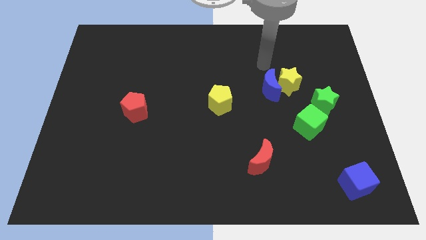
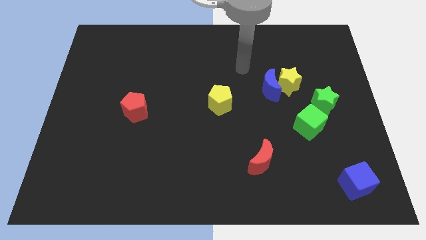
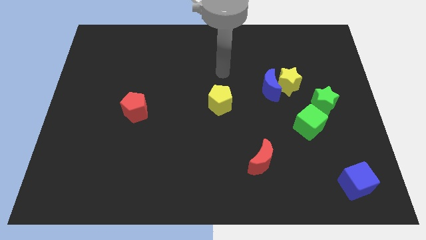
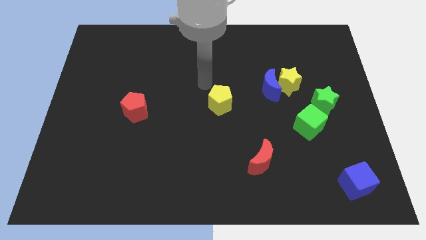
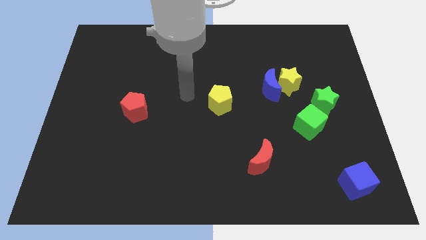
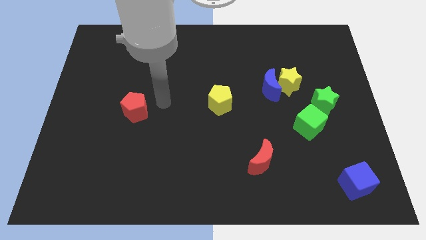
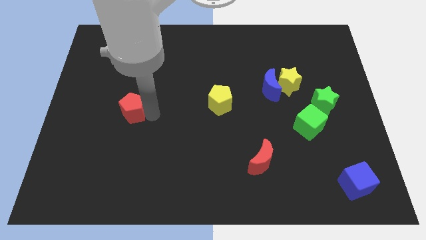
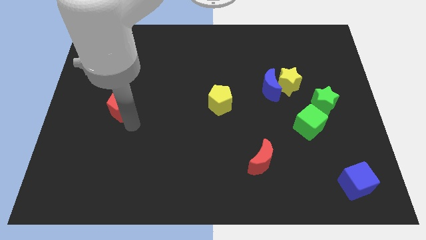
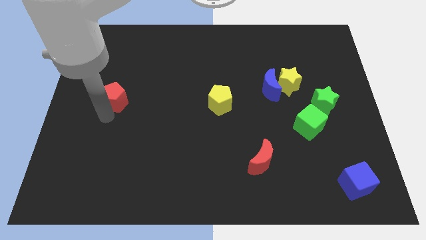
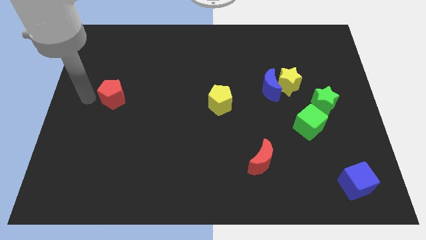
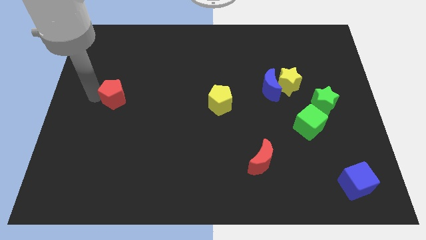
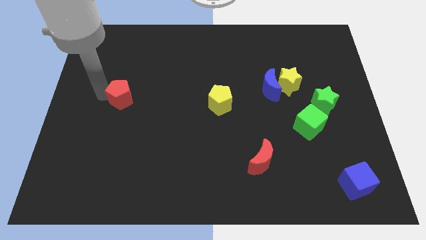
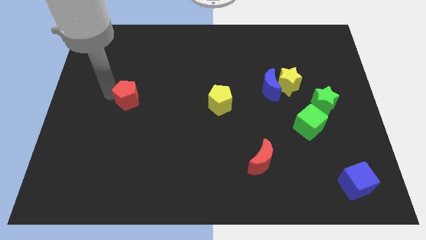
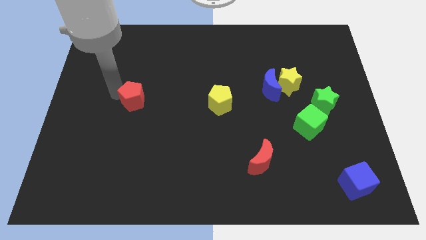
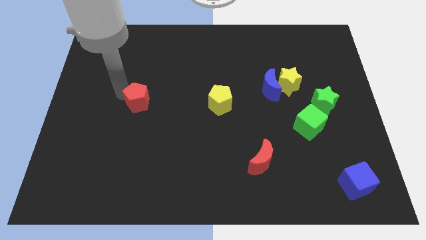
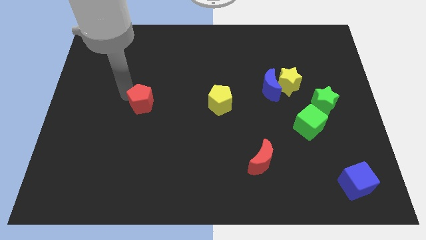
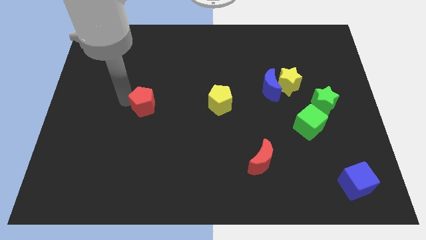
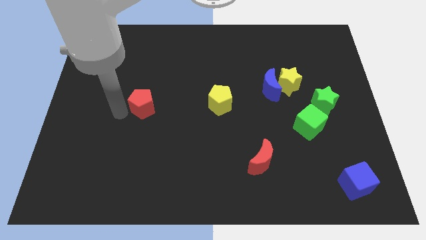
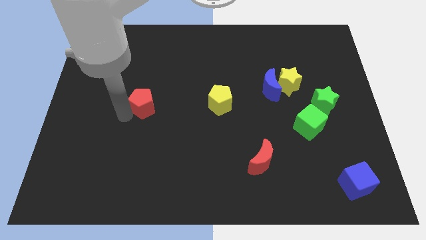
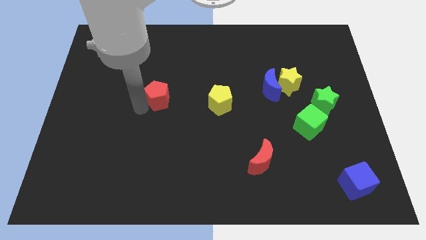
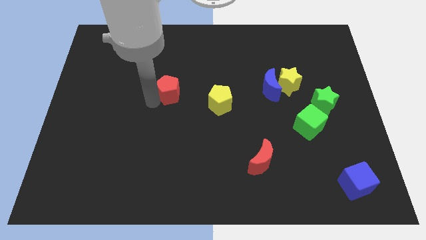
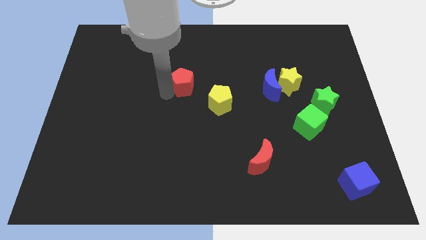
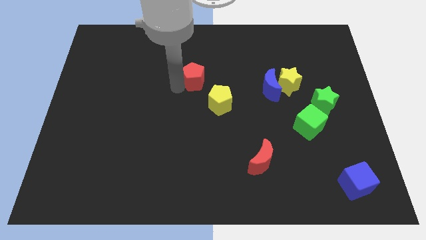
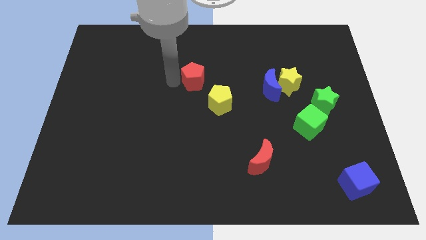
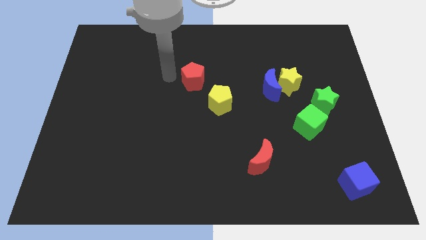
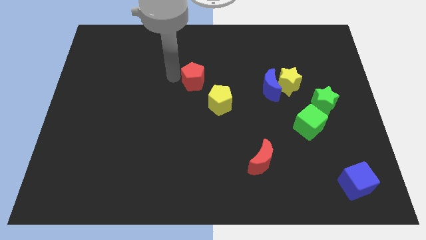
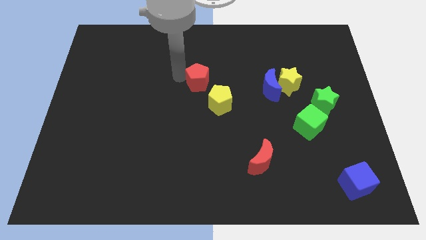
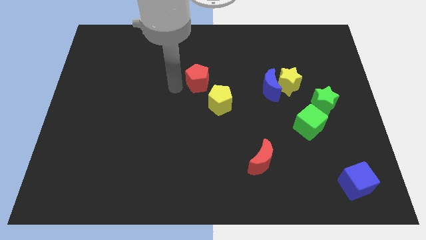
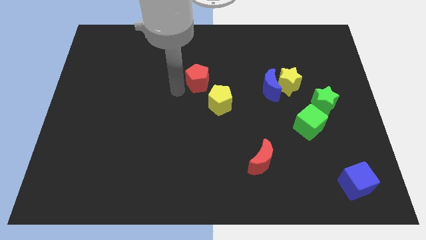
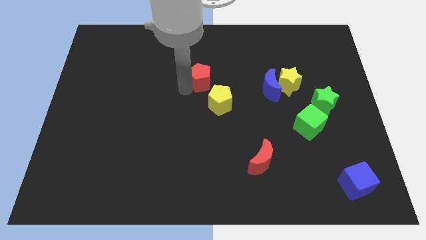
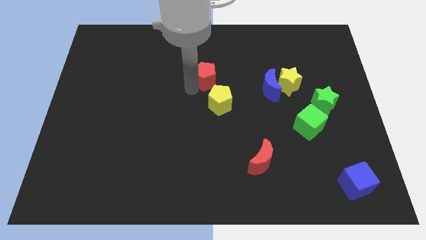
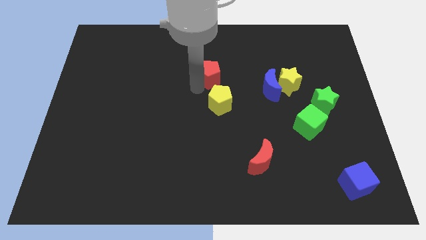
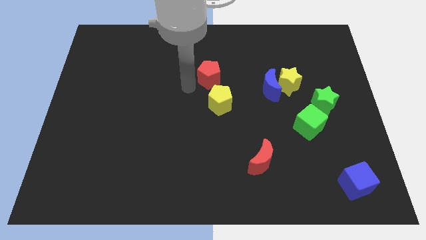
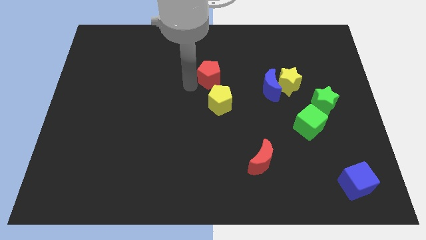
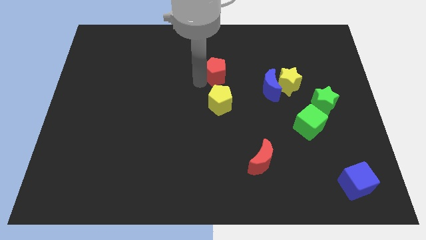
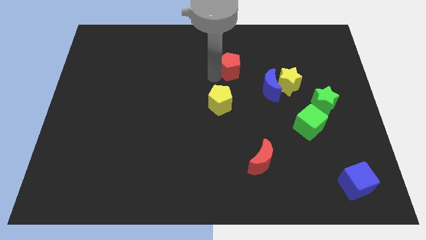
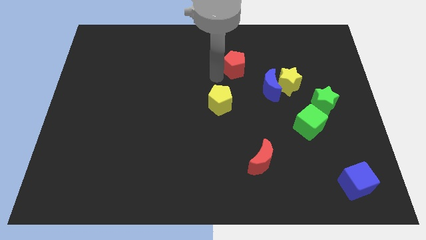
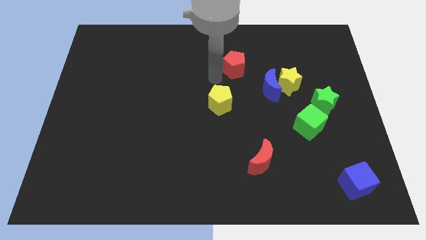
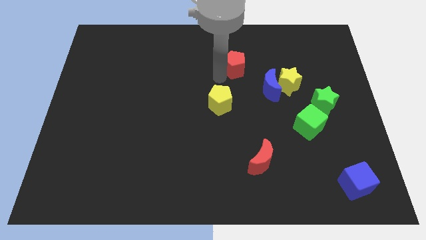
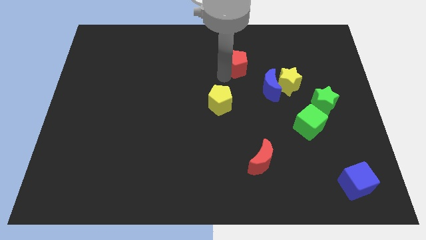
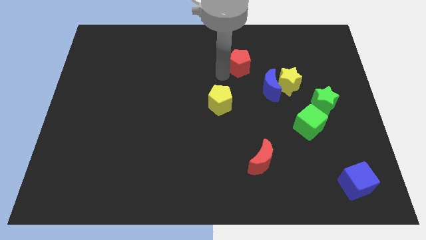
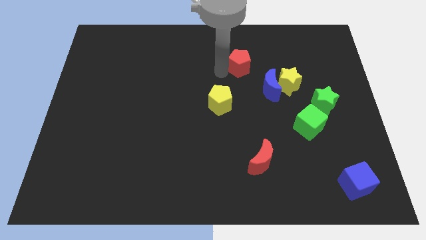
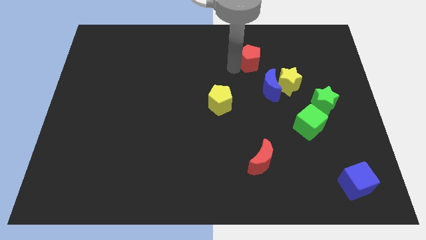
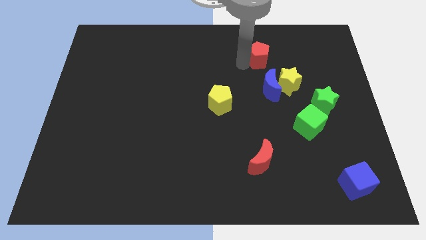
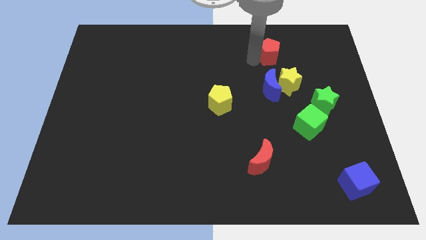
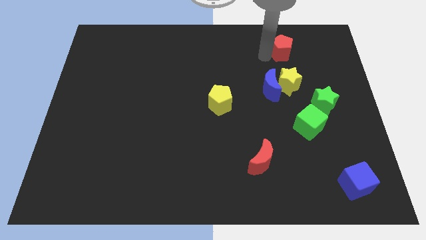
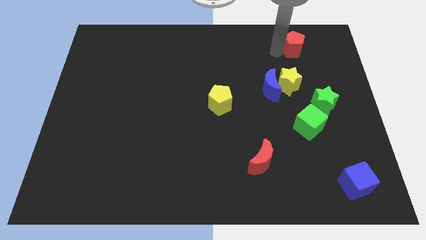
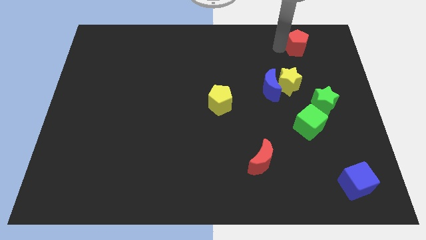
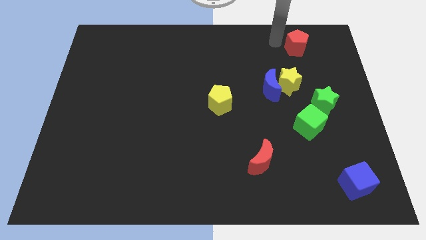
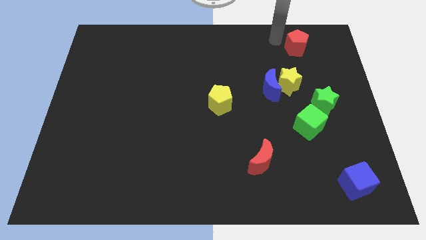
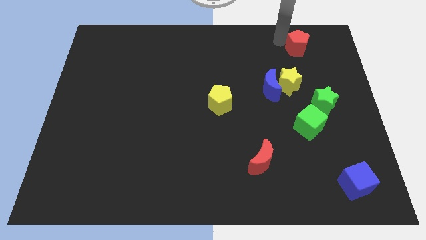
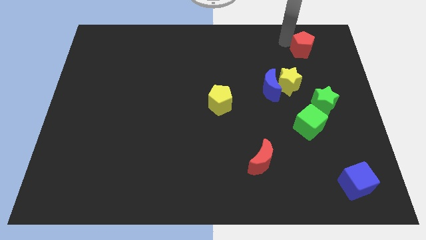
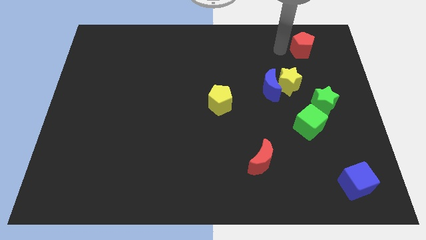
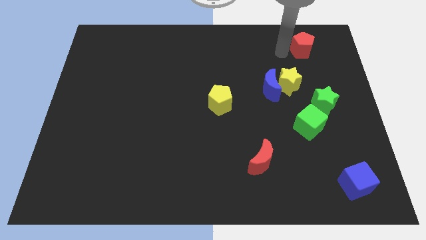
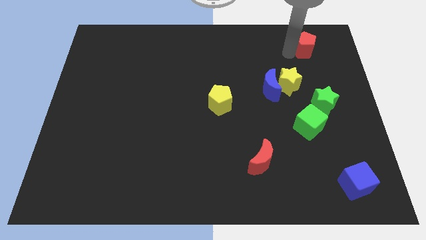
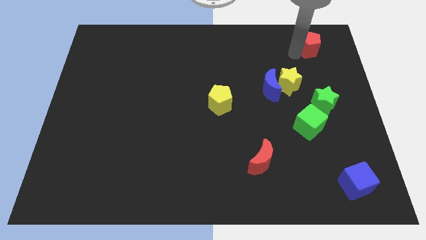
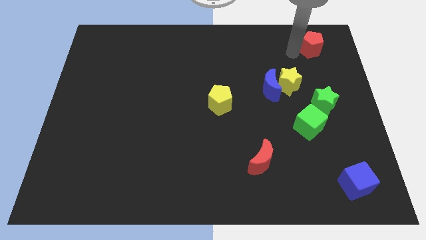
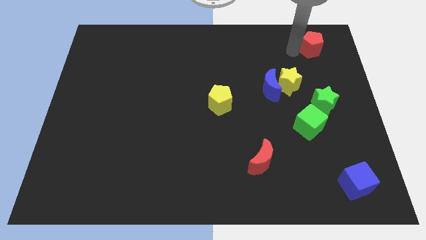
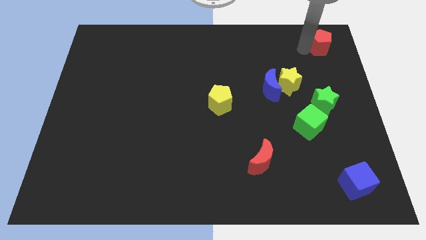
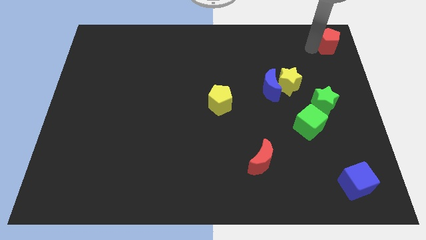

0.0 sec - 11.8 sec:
push the red pentagon to the top right corner

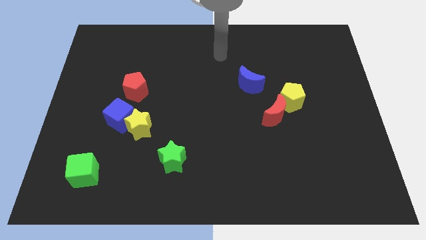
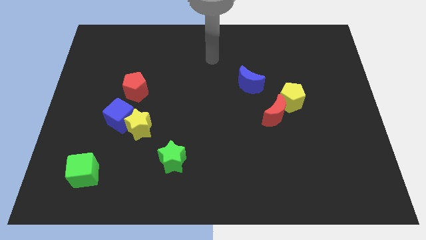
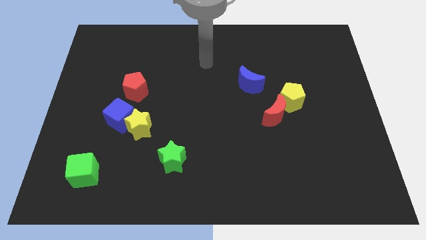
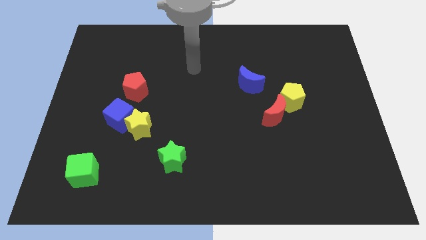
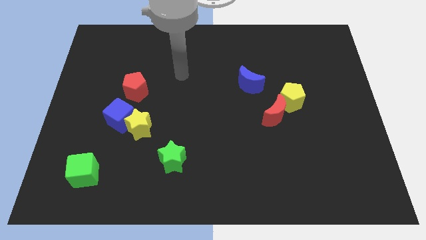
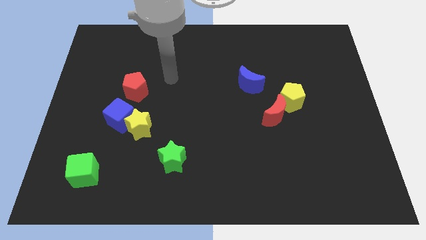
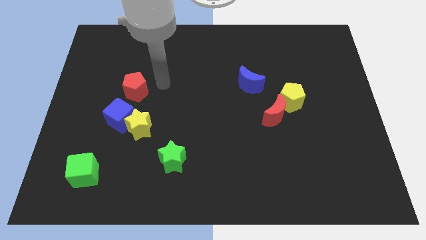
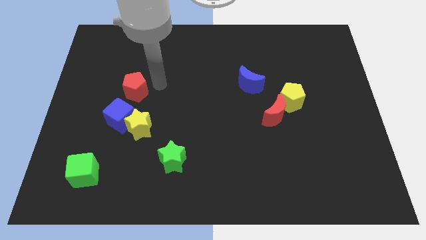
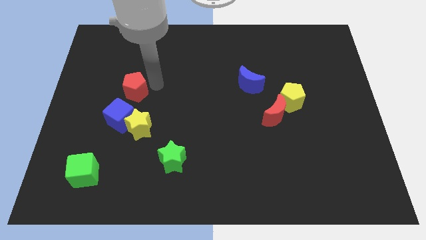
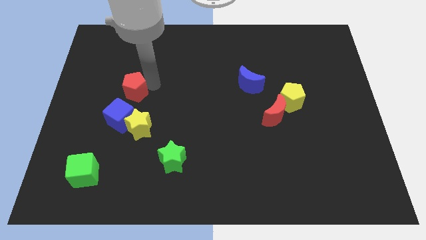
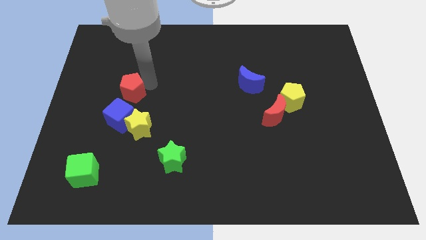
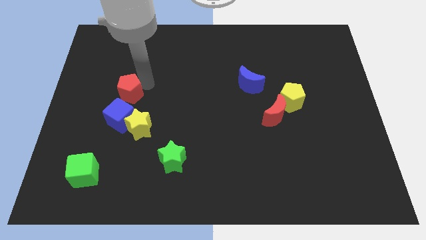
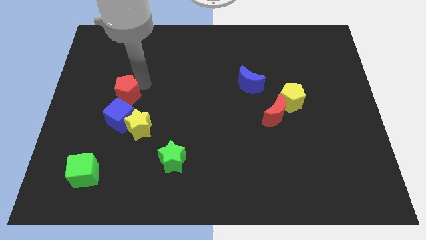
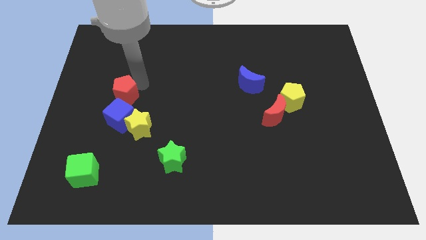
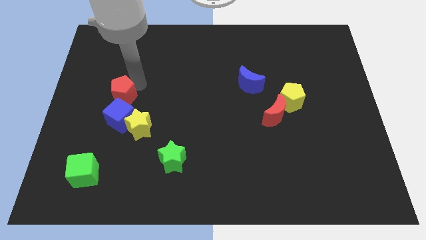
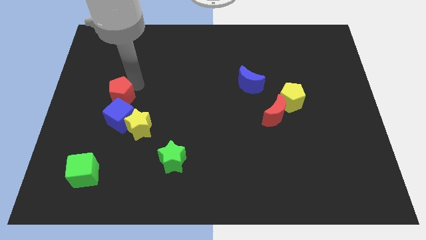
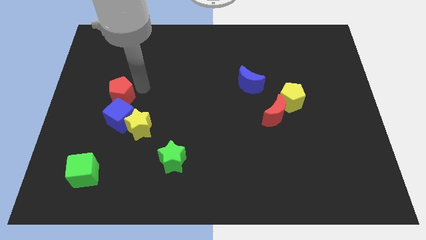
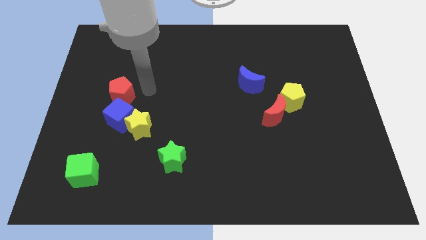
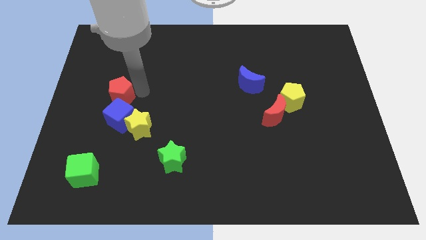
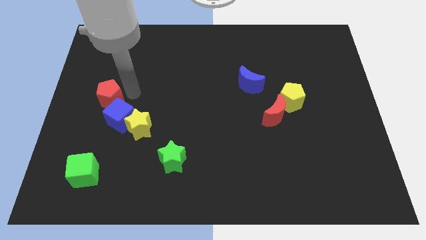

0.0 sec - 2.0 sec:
move the red pentagon to the left side
